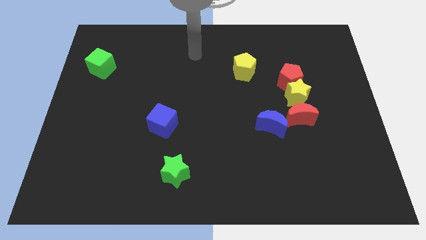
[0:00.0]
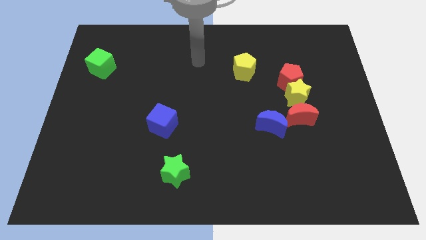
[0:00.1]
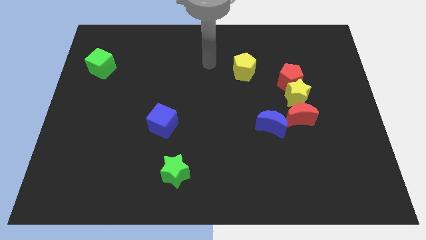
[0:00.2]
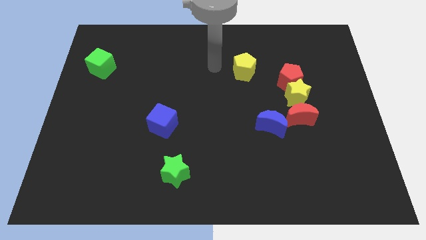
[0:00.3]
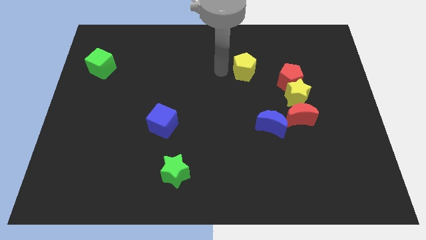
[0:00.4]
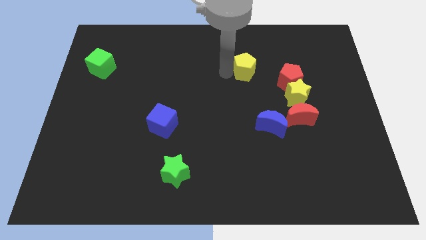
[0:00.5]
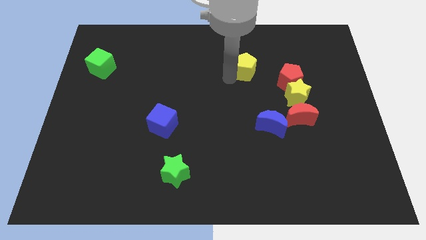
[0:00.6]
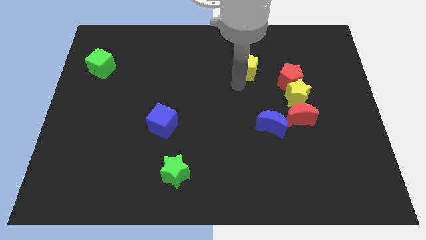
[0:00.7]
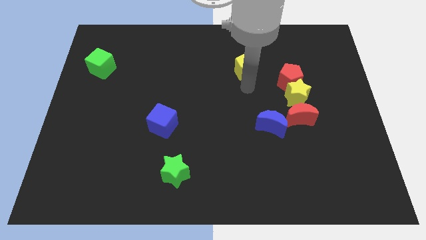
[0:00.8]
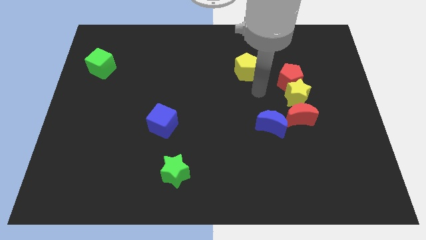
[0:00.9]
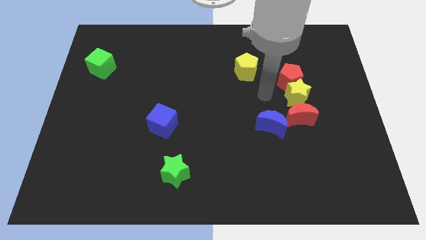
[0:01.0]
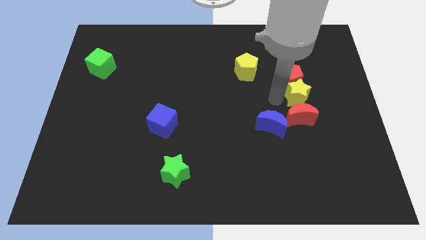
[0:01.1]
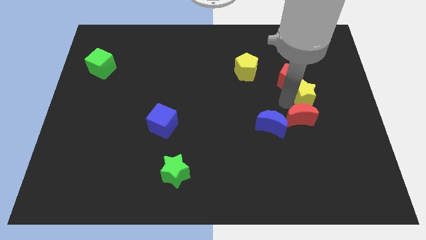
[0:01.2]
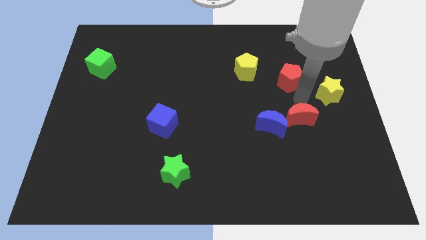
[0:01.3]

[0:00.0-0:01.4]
separate the red pentagon from the yellow star

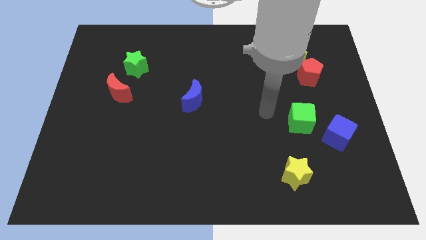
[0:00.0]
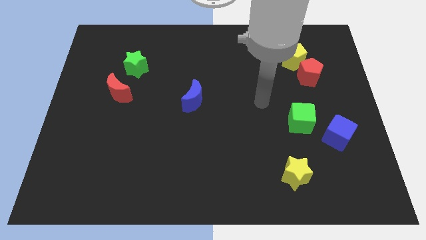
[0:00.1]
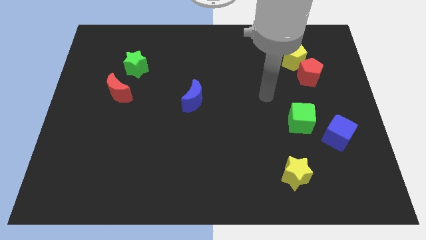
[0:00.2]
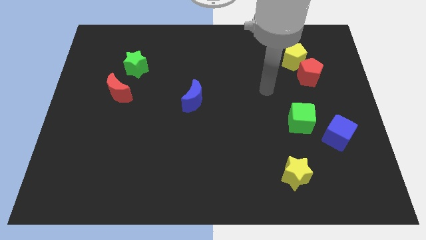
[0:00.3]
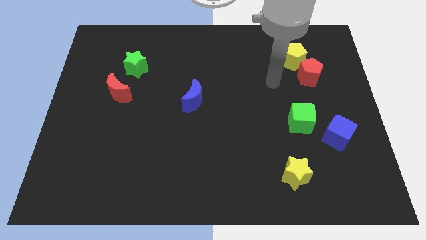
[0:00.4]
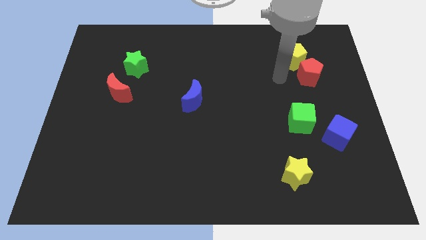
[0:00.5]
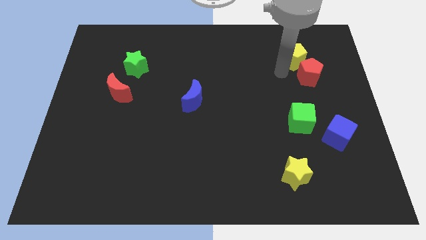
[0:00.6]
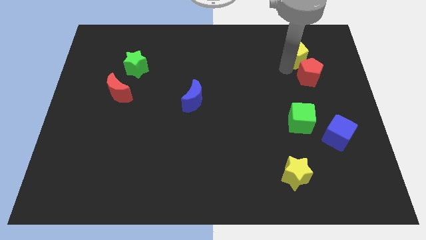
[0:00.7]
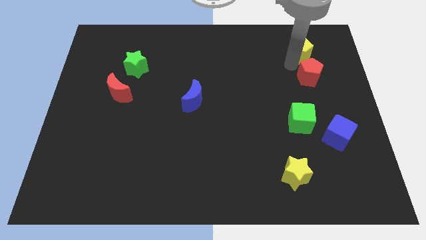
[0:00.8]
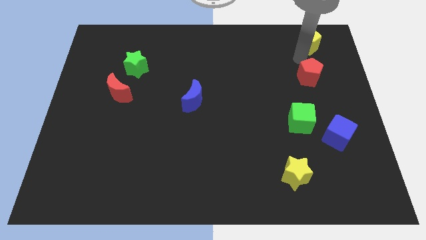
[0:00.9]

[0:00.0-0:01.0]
separate the red pentagon from the yellow pentagon

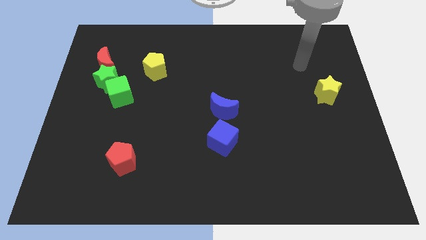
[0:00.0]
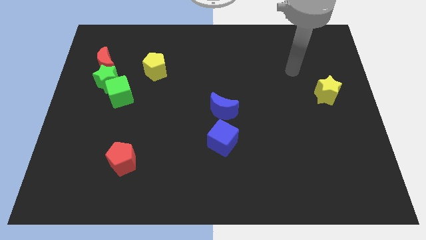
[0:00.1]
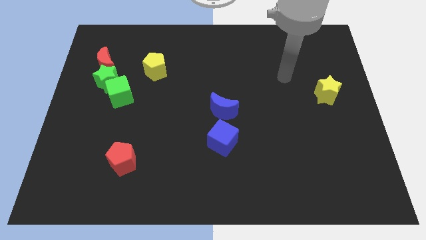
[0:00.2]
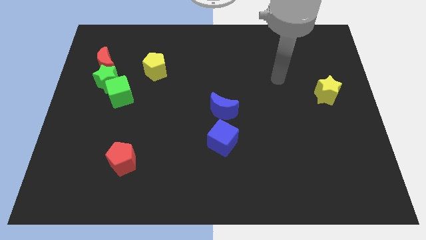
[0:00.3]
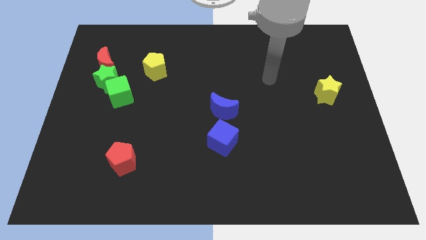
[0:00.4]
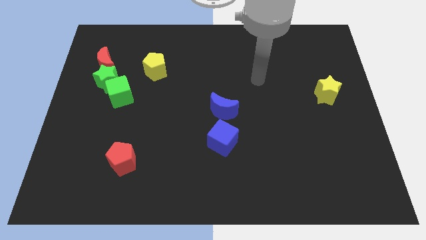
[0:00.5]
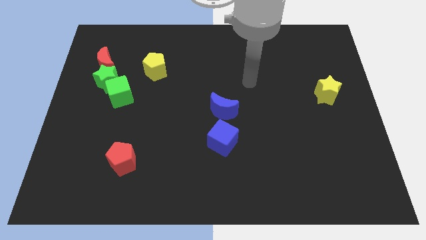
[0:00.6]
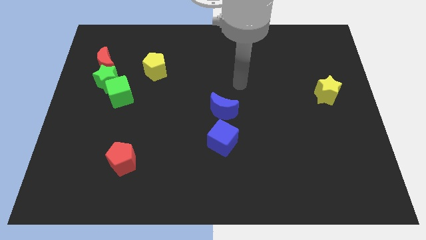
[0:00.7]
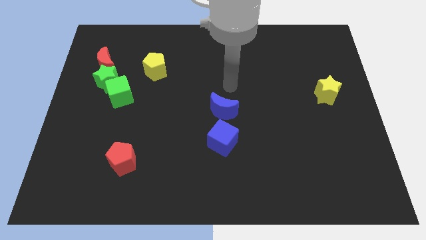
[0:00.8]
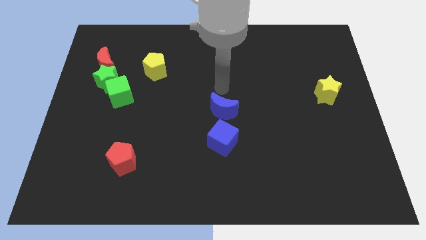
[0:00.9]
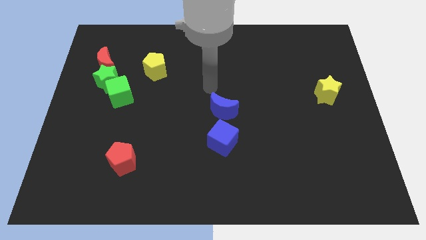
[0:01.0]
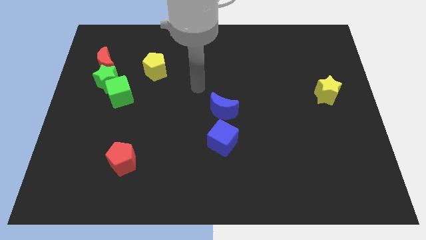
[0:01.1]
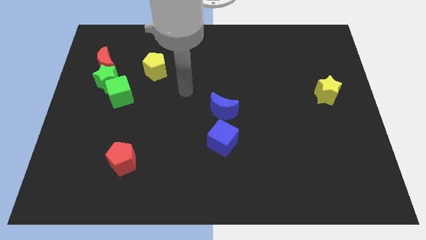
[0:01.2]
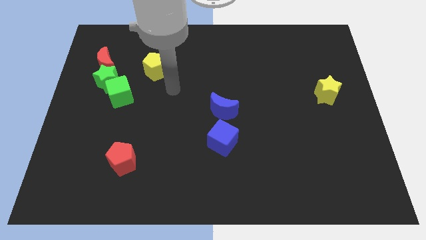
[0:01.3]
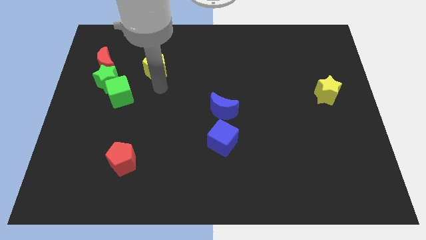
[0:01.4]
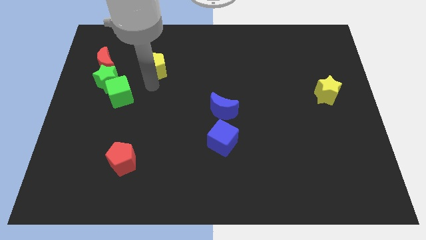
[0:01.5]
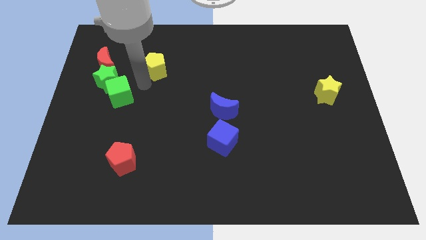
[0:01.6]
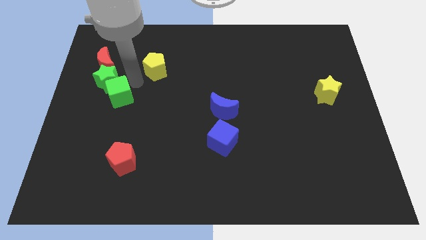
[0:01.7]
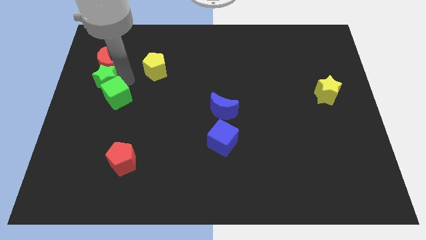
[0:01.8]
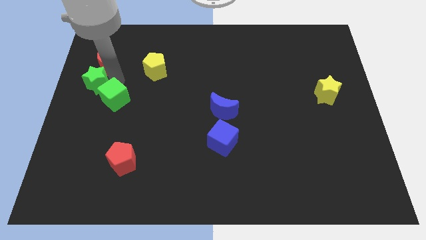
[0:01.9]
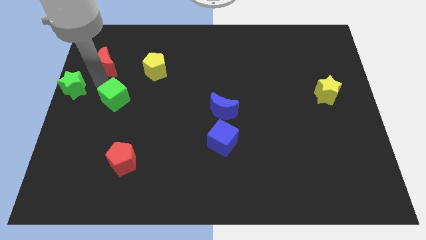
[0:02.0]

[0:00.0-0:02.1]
move the green cube away from the green star

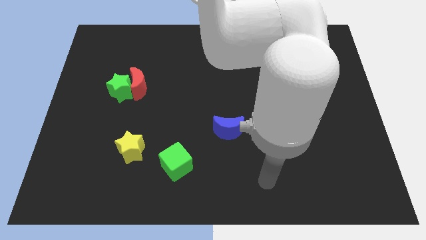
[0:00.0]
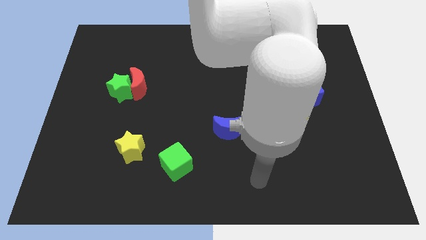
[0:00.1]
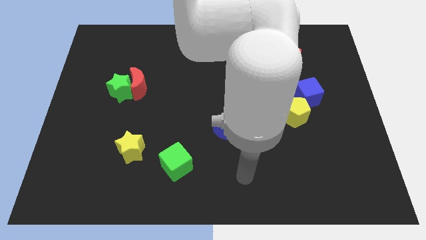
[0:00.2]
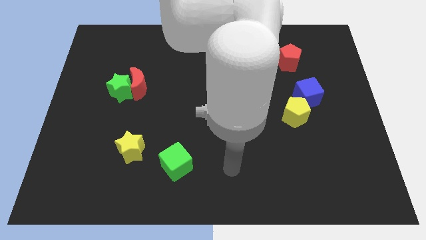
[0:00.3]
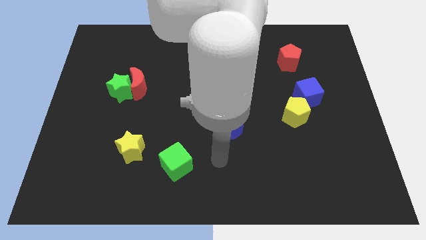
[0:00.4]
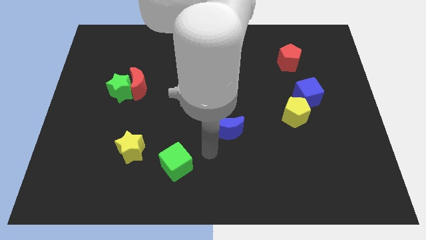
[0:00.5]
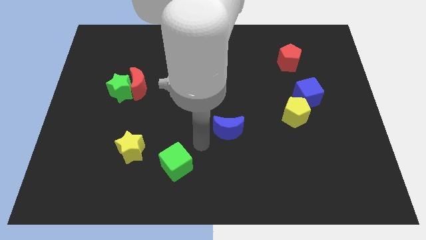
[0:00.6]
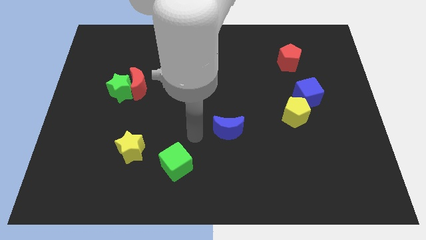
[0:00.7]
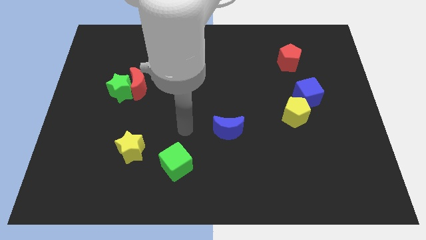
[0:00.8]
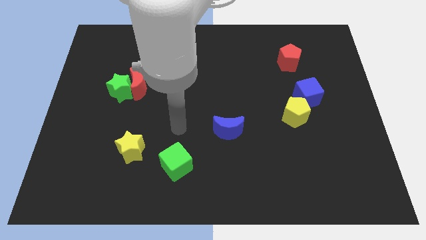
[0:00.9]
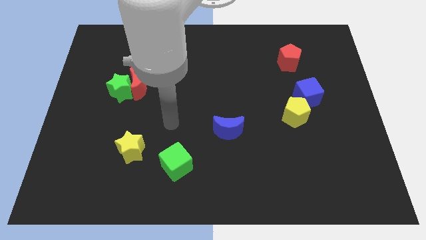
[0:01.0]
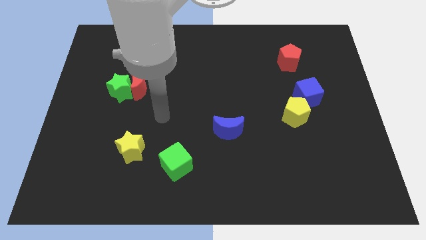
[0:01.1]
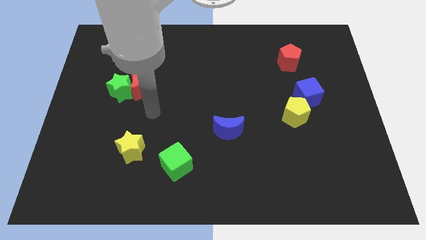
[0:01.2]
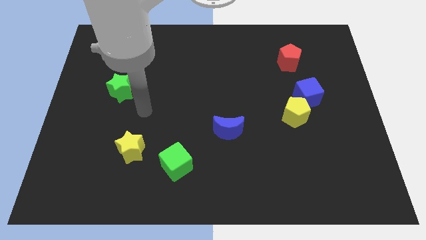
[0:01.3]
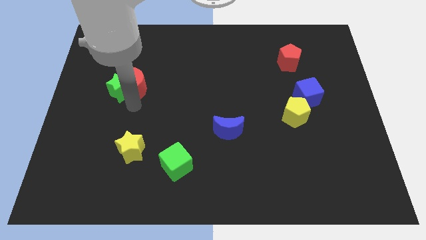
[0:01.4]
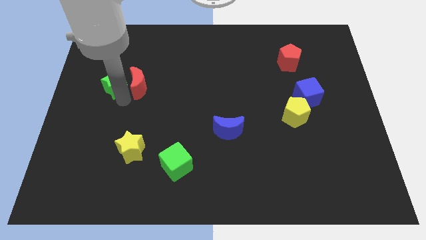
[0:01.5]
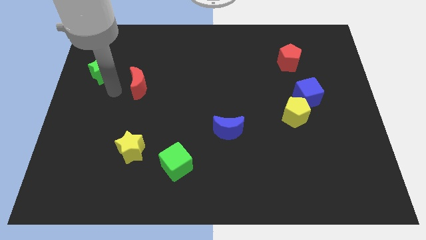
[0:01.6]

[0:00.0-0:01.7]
pull the red moon apart from the green star

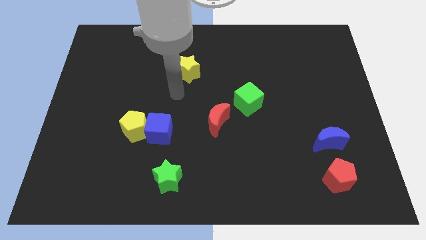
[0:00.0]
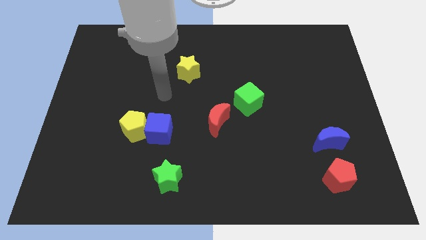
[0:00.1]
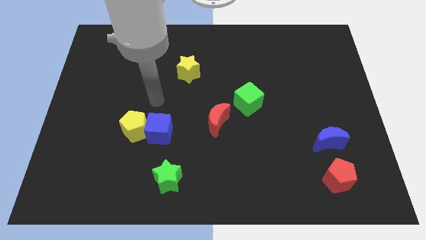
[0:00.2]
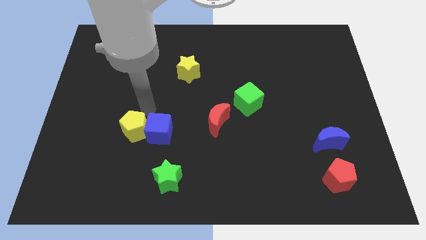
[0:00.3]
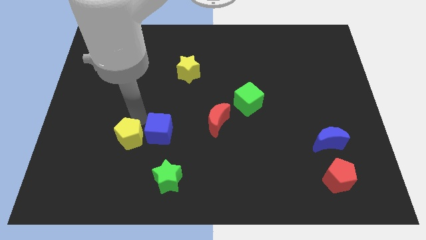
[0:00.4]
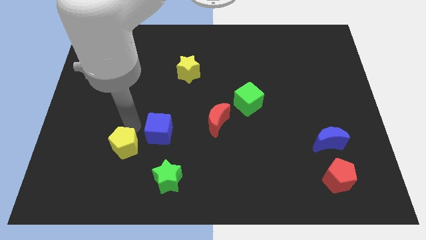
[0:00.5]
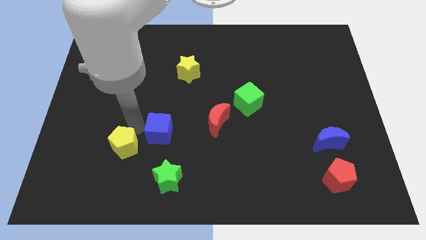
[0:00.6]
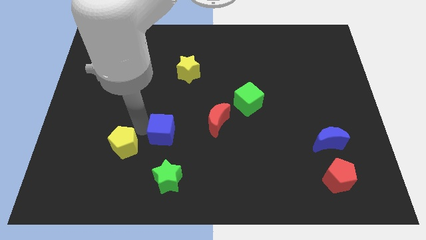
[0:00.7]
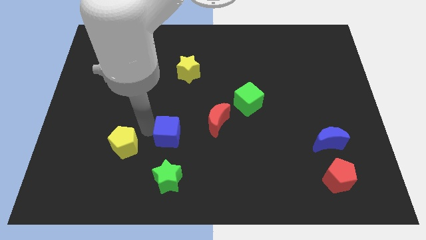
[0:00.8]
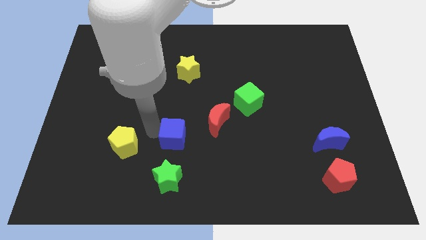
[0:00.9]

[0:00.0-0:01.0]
separate the blue cube from the yellow pentagon

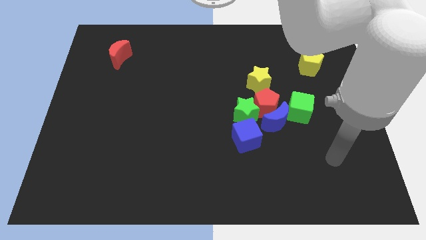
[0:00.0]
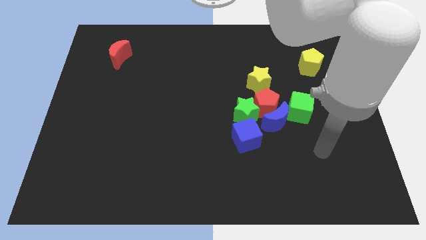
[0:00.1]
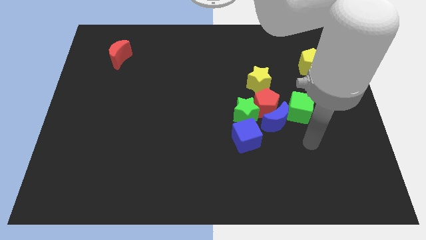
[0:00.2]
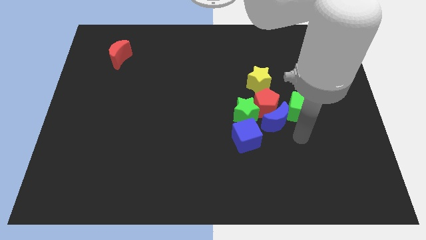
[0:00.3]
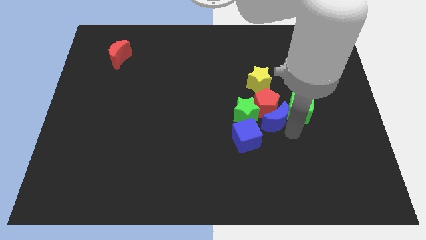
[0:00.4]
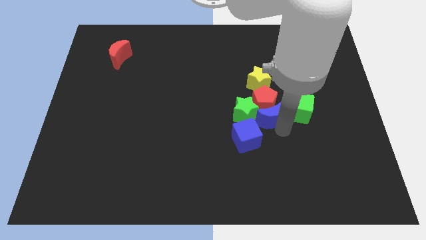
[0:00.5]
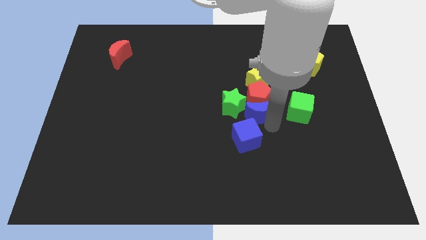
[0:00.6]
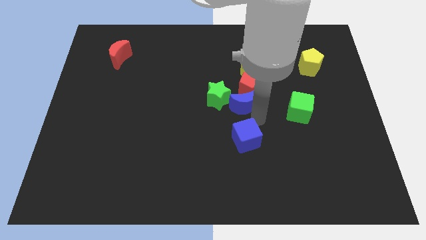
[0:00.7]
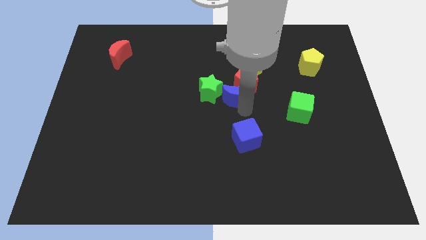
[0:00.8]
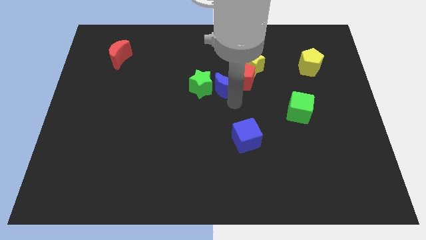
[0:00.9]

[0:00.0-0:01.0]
move the green star away from the clump

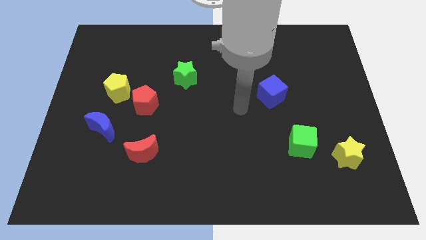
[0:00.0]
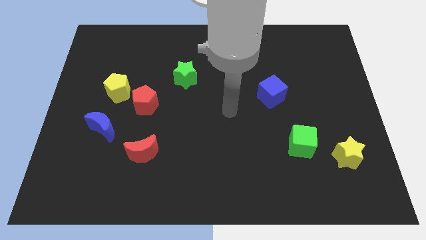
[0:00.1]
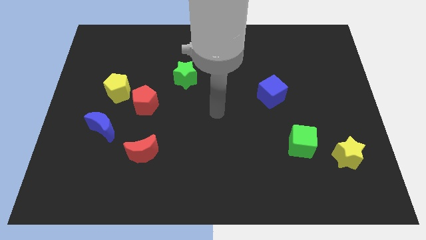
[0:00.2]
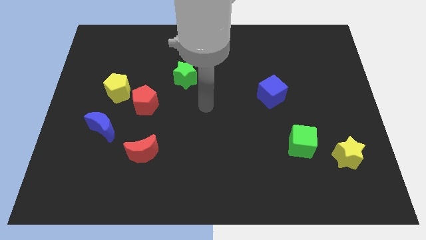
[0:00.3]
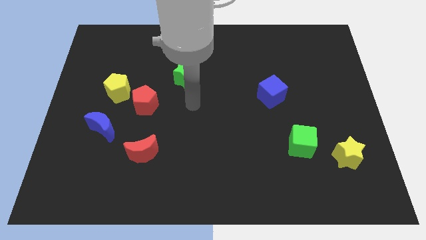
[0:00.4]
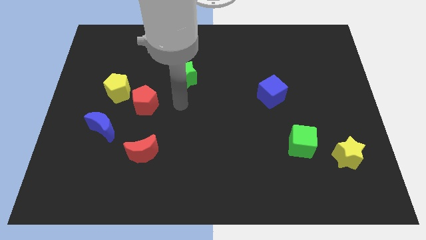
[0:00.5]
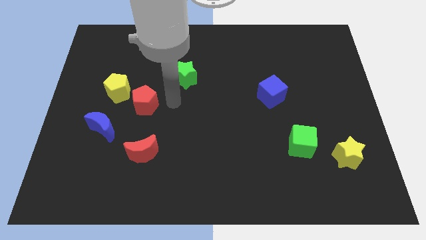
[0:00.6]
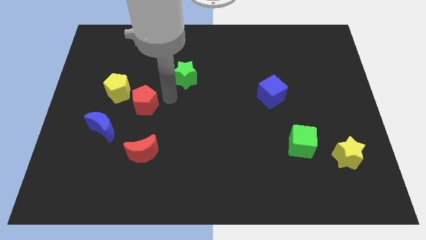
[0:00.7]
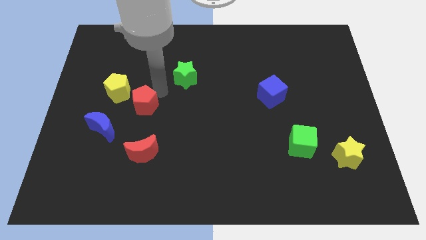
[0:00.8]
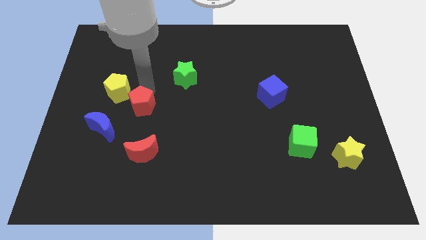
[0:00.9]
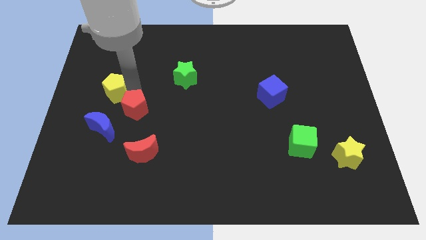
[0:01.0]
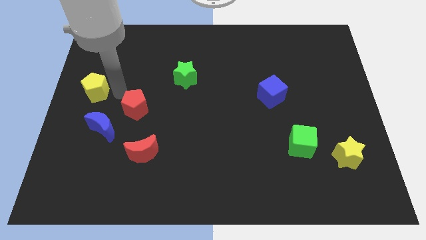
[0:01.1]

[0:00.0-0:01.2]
pull the red pentagon apart from the yellow pentagon
